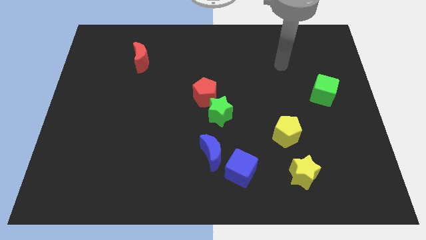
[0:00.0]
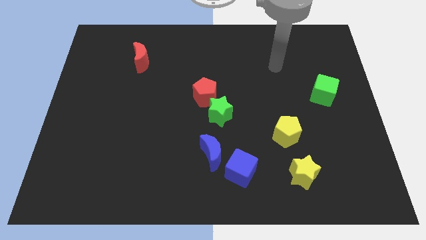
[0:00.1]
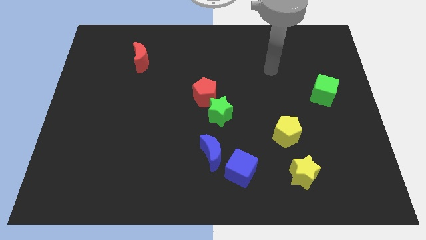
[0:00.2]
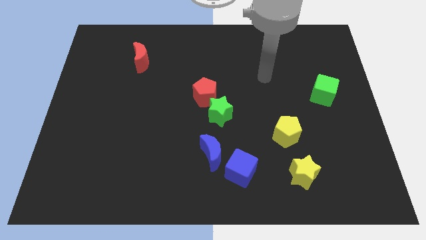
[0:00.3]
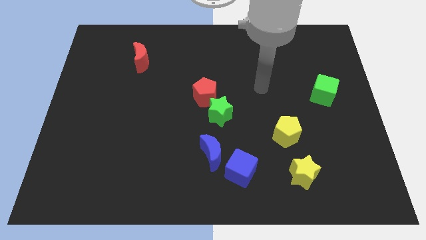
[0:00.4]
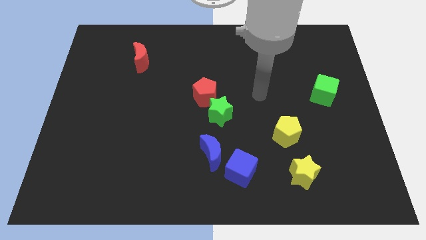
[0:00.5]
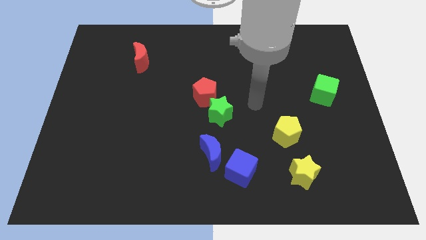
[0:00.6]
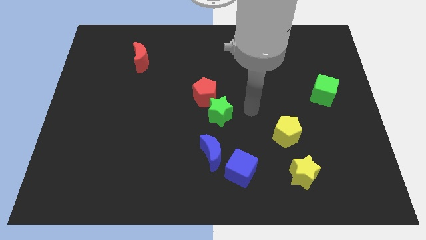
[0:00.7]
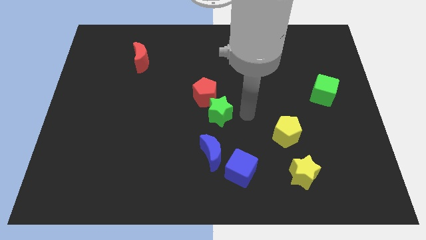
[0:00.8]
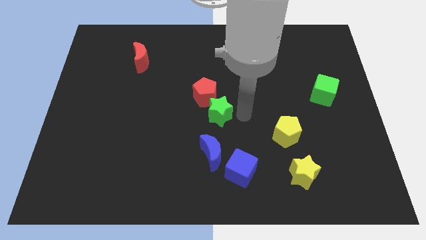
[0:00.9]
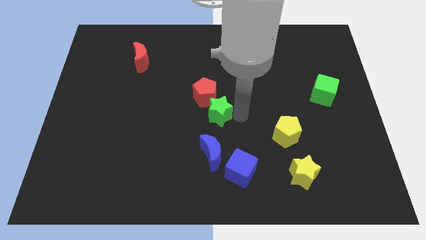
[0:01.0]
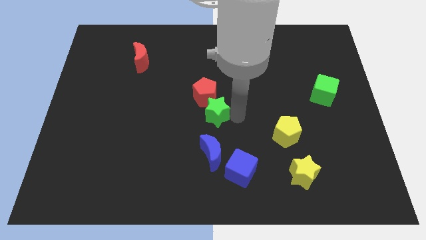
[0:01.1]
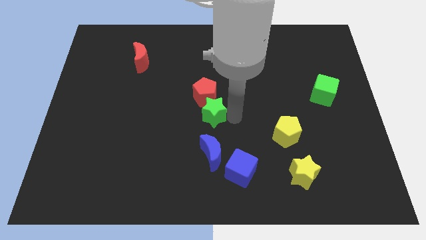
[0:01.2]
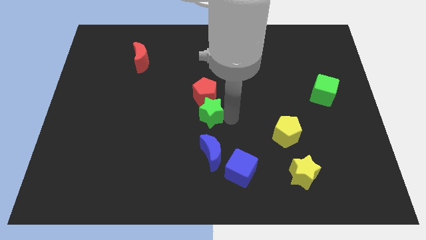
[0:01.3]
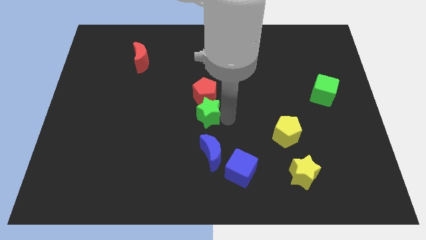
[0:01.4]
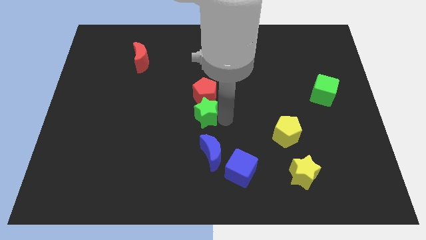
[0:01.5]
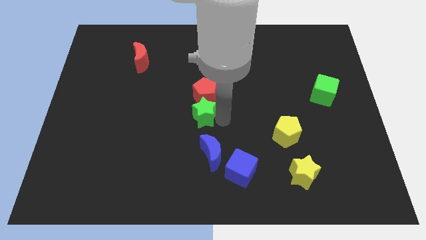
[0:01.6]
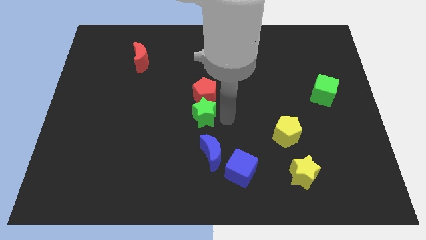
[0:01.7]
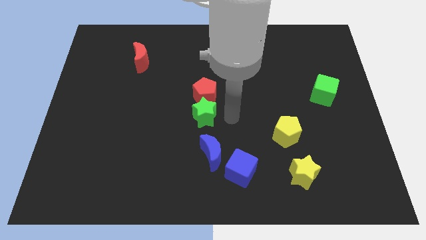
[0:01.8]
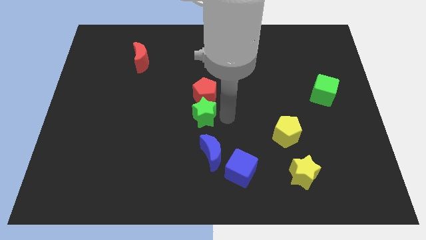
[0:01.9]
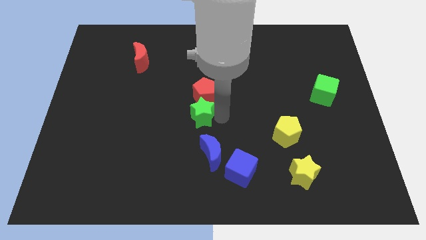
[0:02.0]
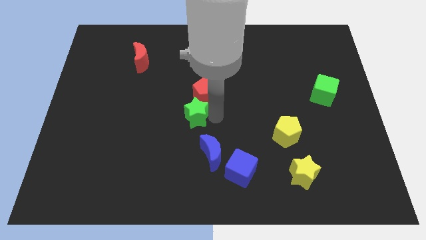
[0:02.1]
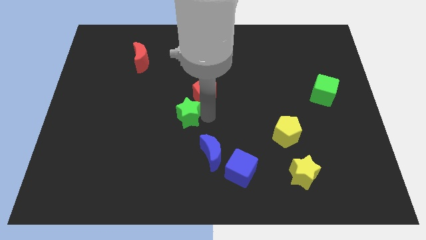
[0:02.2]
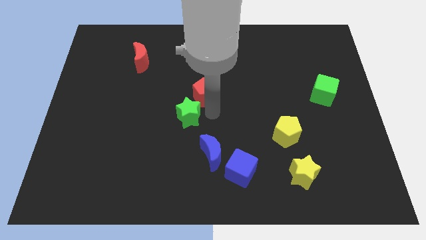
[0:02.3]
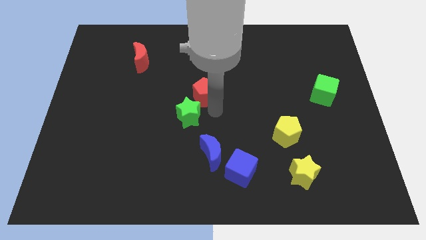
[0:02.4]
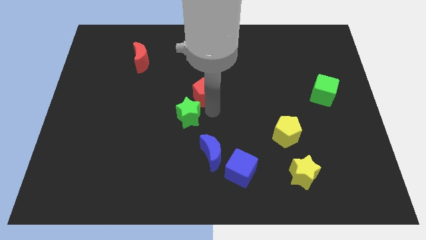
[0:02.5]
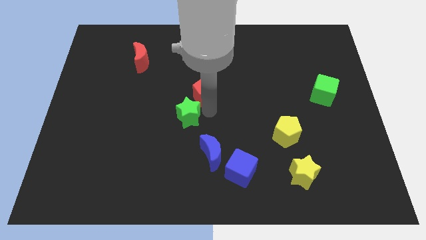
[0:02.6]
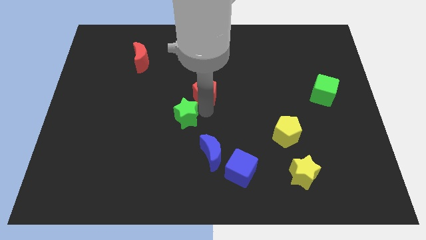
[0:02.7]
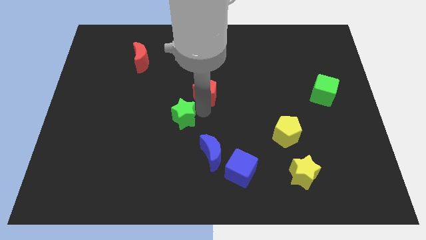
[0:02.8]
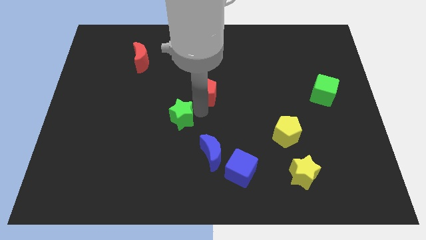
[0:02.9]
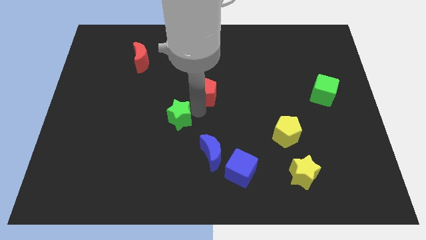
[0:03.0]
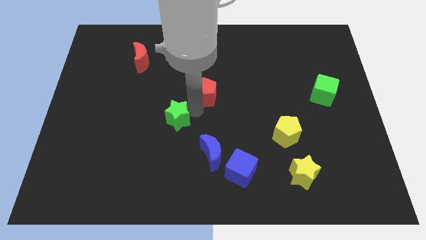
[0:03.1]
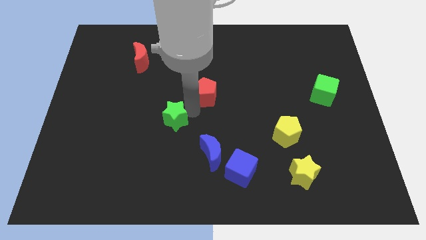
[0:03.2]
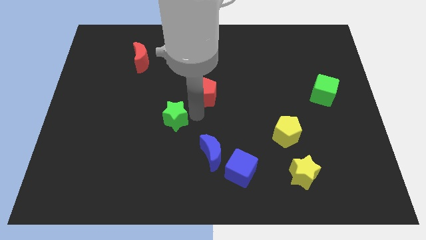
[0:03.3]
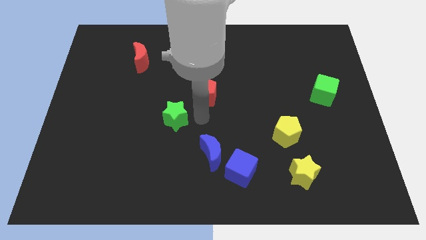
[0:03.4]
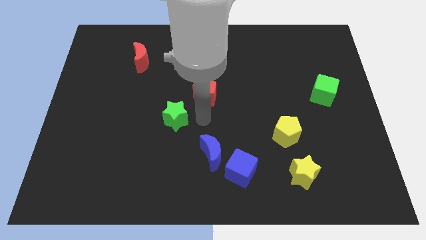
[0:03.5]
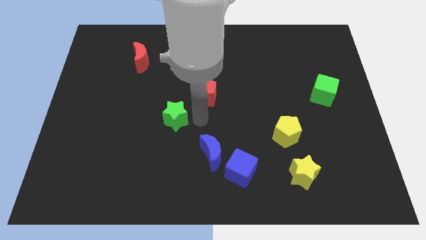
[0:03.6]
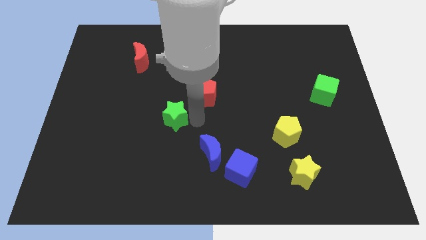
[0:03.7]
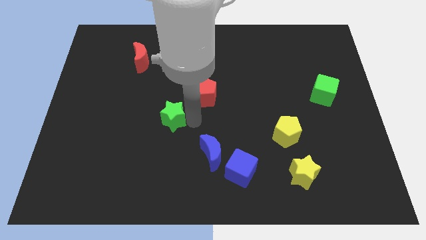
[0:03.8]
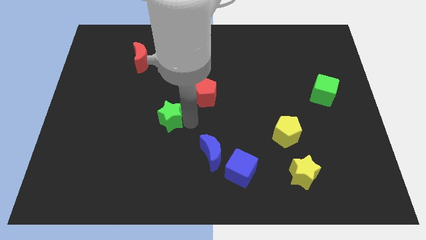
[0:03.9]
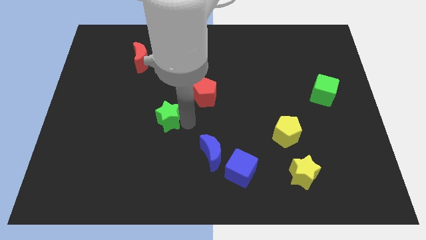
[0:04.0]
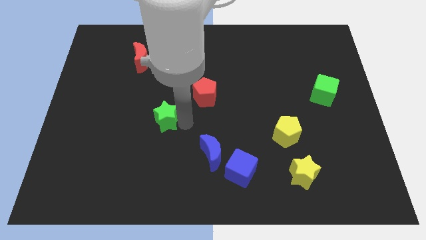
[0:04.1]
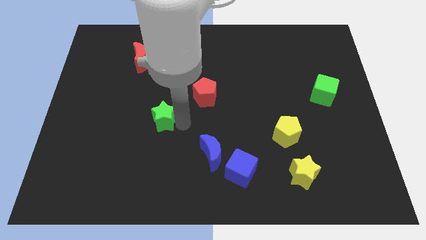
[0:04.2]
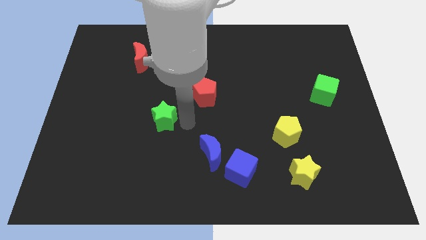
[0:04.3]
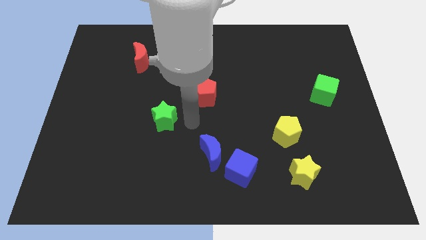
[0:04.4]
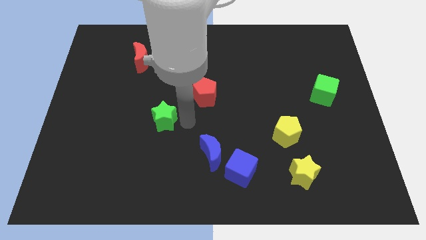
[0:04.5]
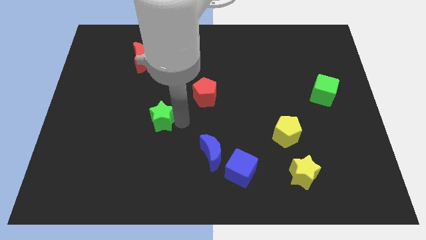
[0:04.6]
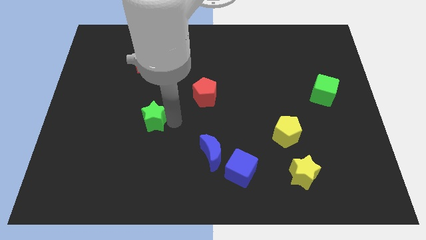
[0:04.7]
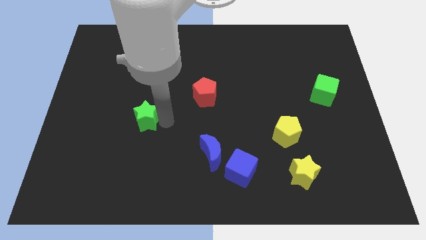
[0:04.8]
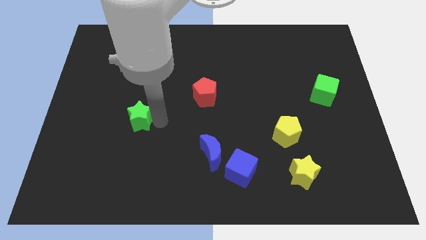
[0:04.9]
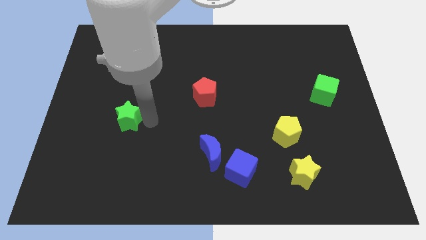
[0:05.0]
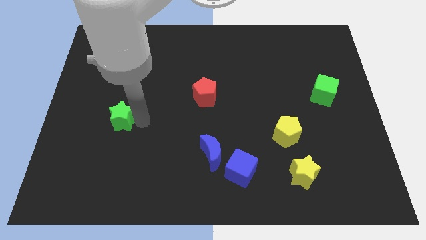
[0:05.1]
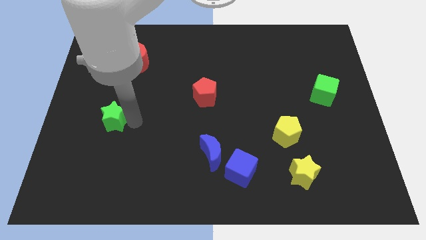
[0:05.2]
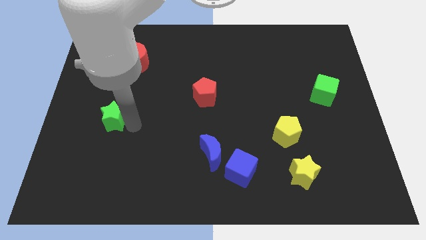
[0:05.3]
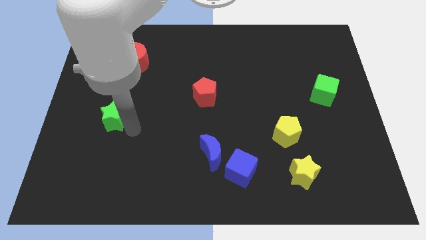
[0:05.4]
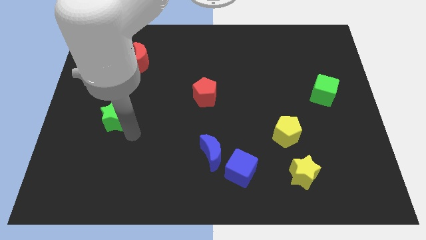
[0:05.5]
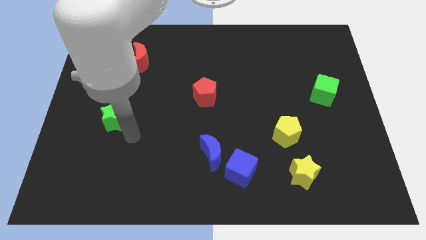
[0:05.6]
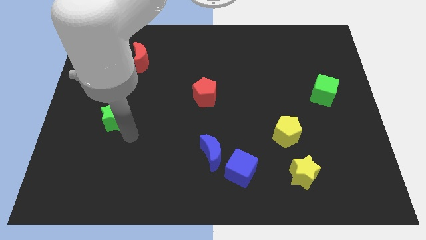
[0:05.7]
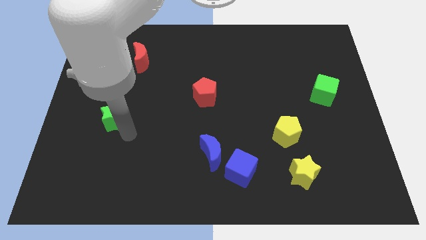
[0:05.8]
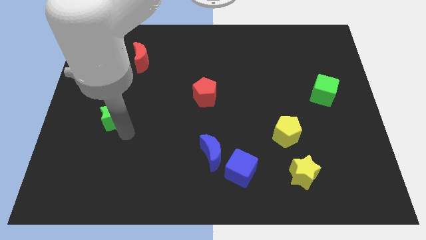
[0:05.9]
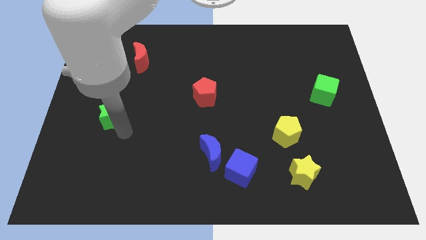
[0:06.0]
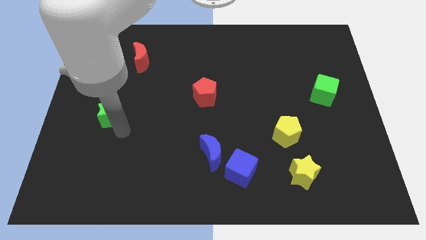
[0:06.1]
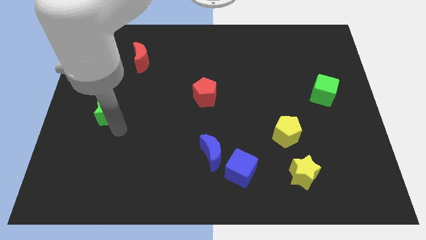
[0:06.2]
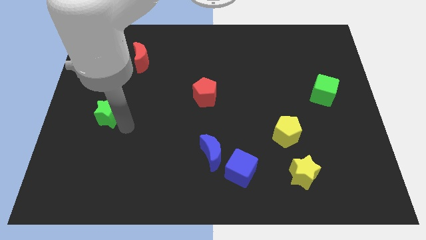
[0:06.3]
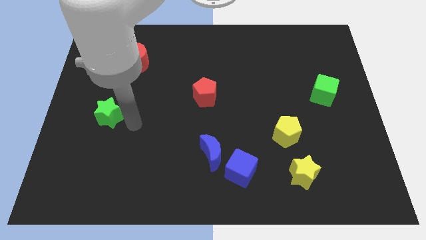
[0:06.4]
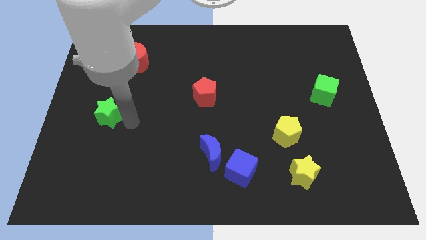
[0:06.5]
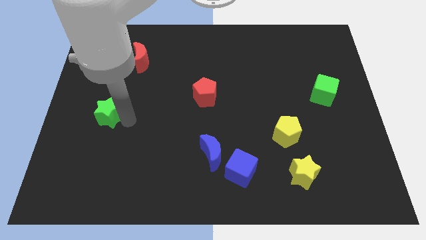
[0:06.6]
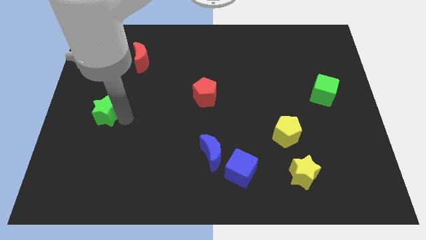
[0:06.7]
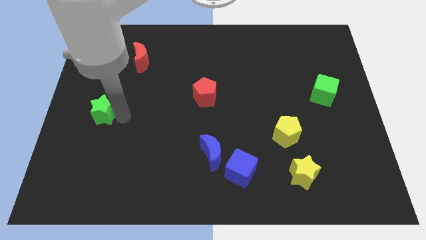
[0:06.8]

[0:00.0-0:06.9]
push the green star to the left side of the board

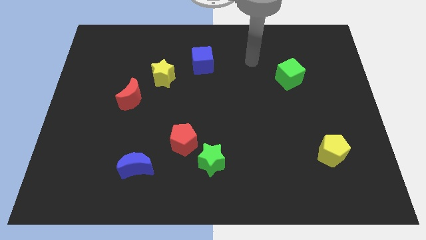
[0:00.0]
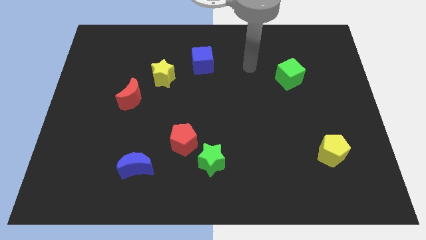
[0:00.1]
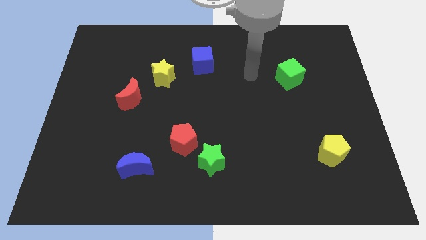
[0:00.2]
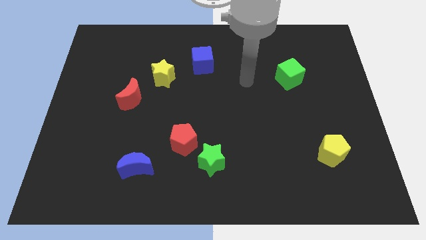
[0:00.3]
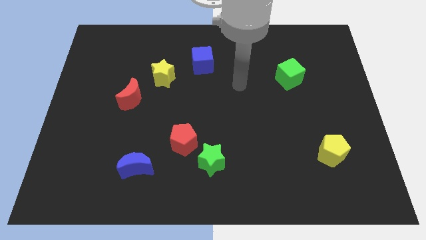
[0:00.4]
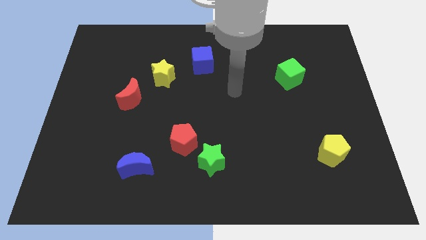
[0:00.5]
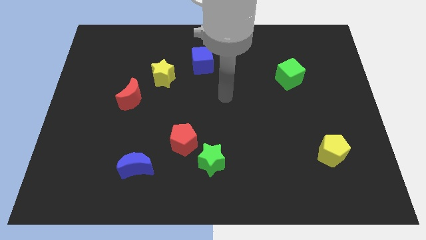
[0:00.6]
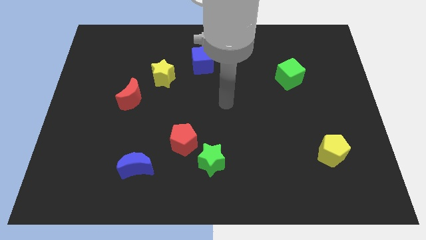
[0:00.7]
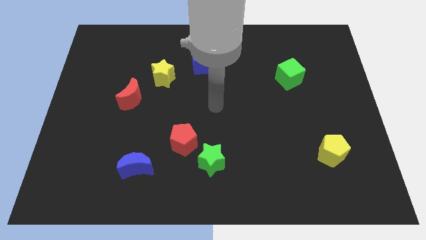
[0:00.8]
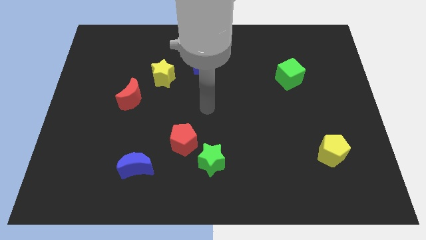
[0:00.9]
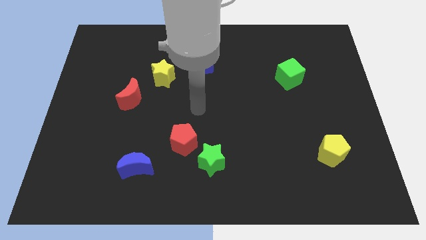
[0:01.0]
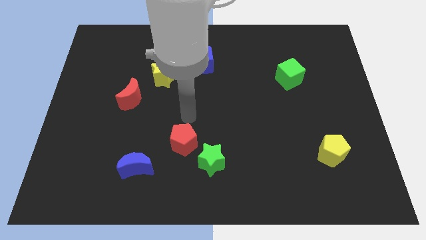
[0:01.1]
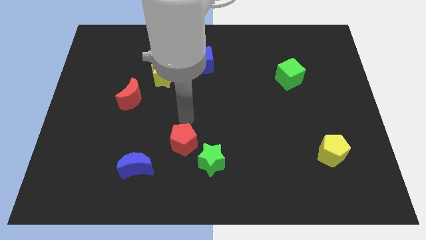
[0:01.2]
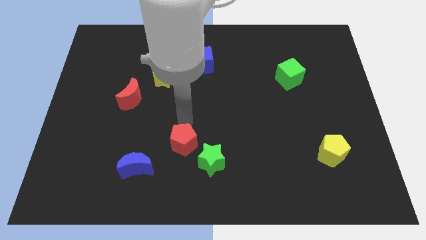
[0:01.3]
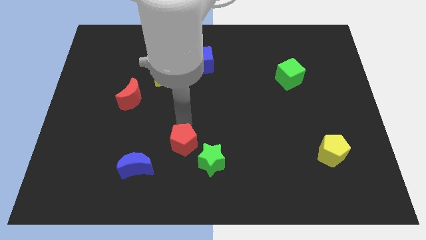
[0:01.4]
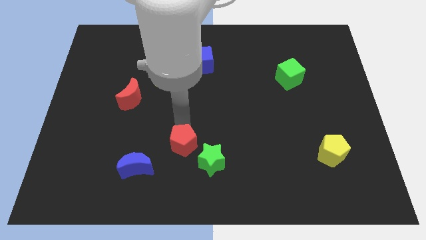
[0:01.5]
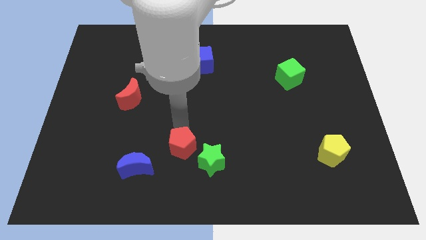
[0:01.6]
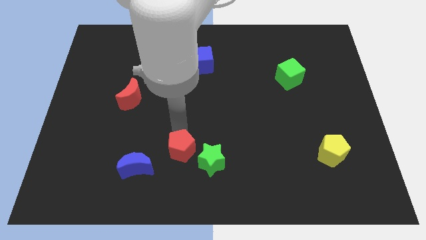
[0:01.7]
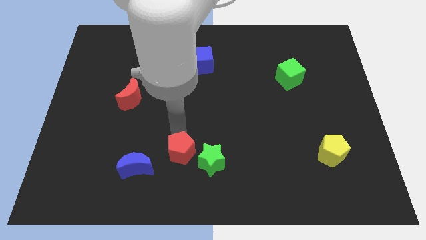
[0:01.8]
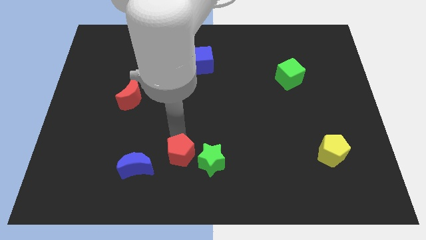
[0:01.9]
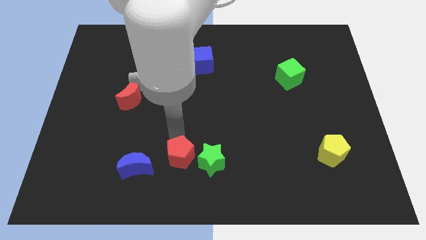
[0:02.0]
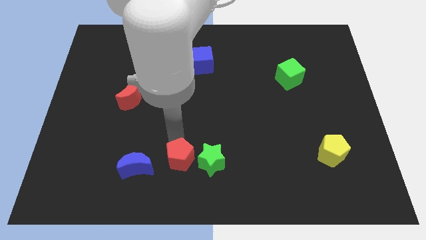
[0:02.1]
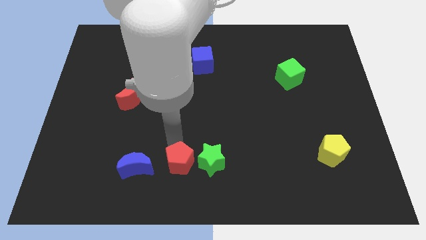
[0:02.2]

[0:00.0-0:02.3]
push the red pentagon to the bottom
